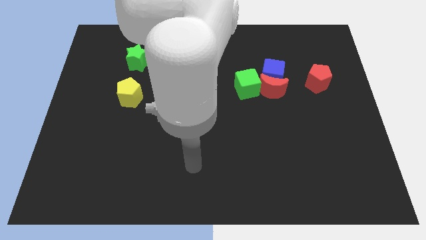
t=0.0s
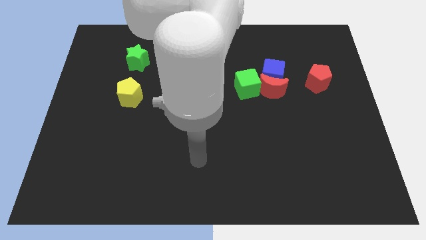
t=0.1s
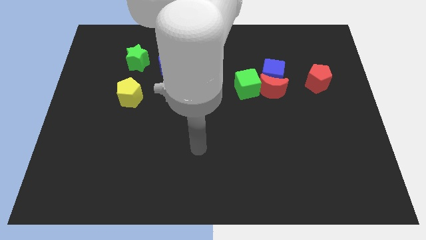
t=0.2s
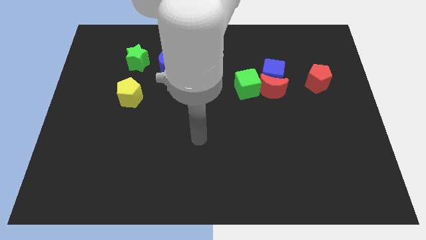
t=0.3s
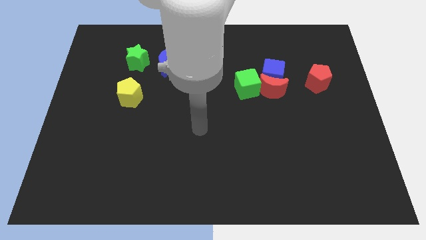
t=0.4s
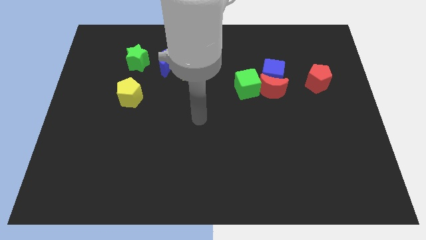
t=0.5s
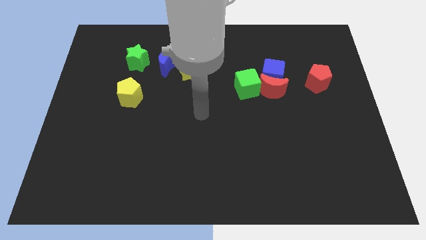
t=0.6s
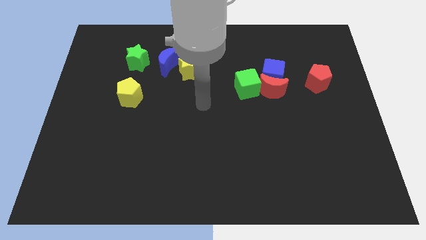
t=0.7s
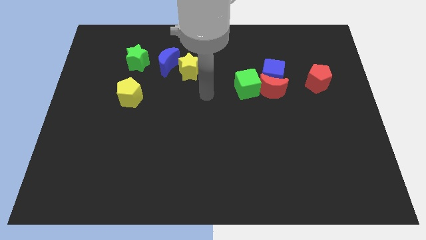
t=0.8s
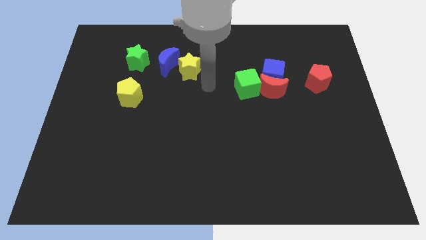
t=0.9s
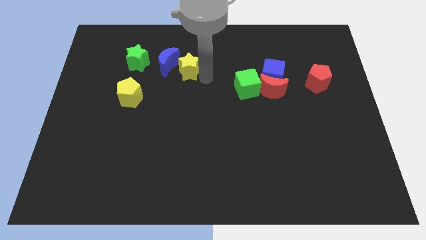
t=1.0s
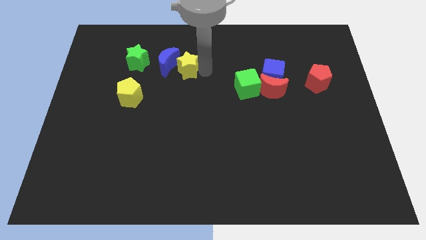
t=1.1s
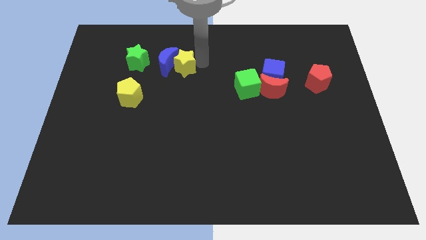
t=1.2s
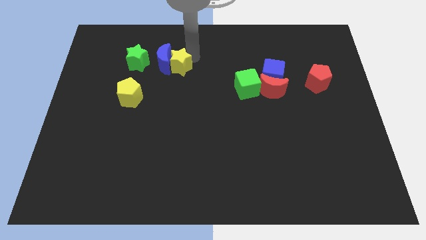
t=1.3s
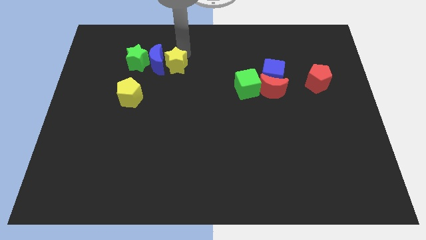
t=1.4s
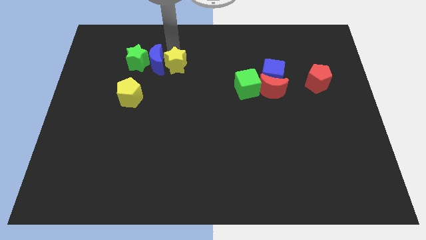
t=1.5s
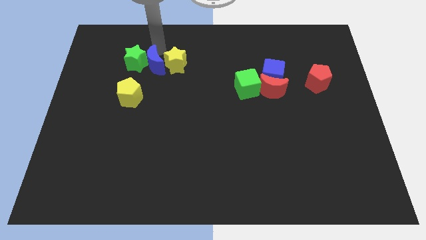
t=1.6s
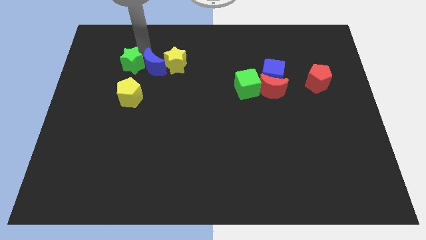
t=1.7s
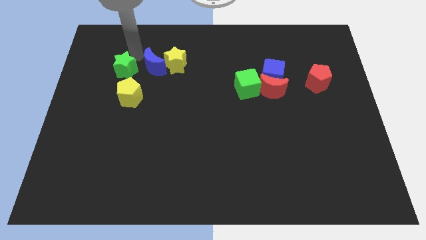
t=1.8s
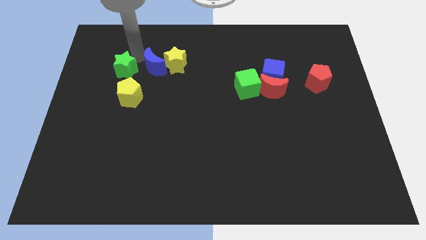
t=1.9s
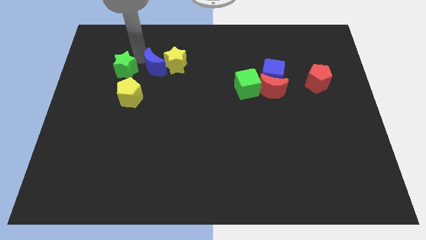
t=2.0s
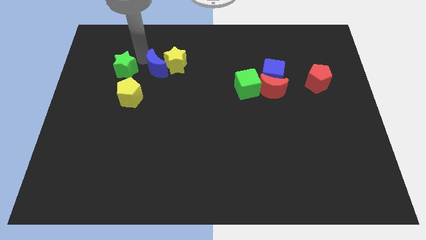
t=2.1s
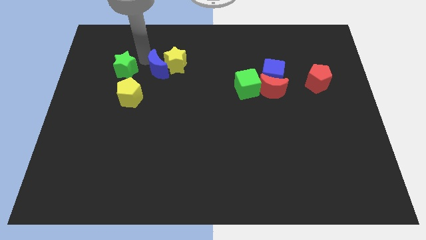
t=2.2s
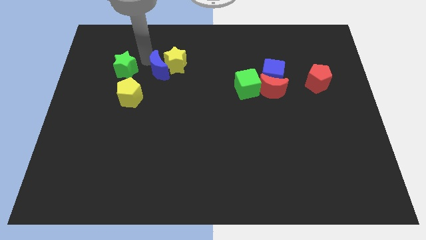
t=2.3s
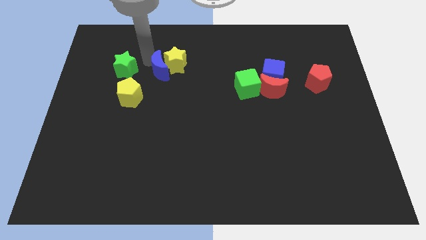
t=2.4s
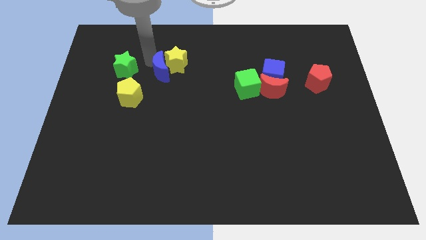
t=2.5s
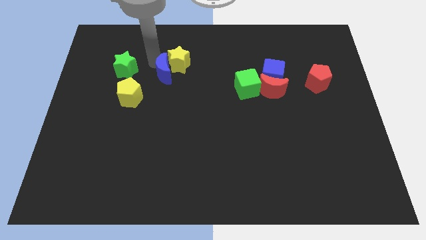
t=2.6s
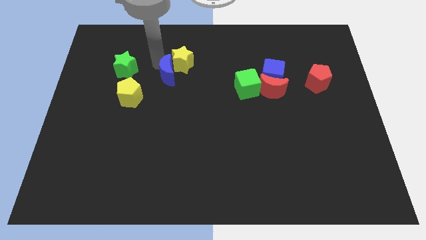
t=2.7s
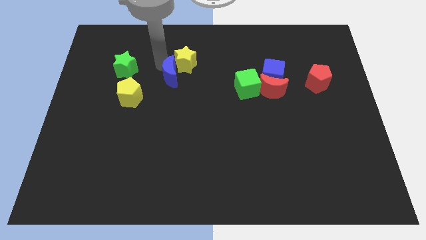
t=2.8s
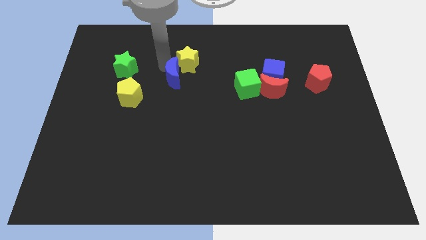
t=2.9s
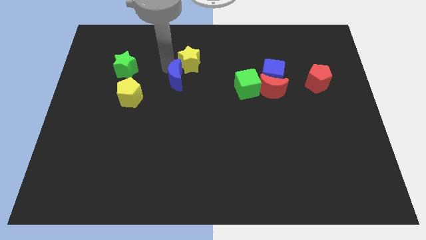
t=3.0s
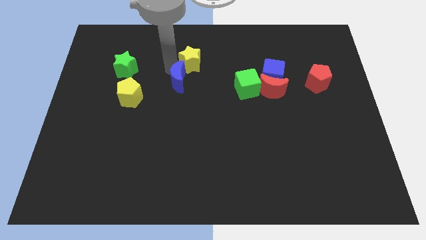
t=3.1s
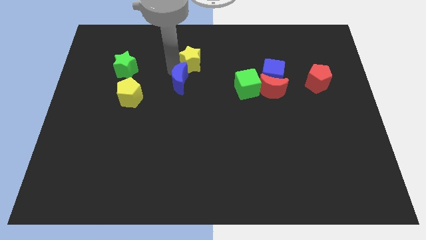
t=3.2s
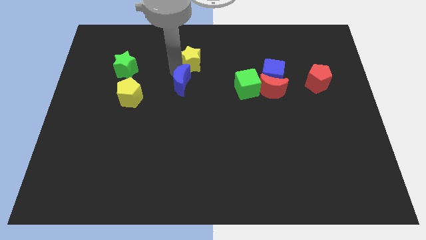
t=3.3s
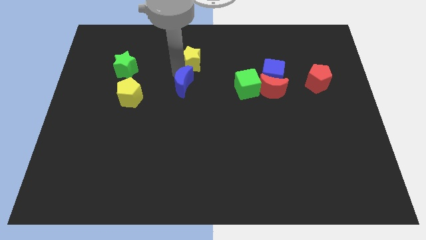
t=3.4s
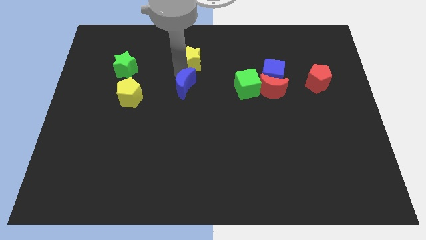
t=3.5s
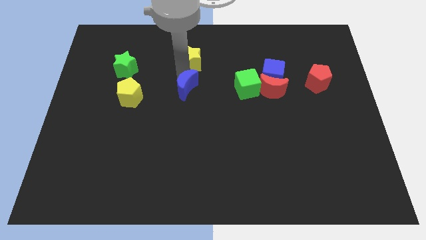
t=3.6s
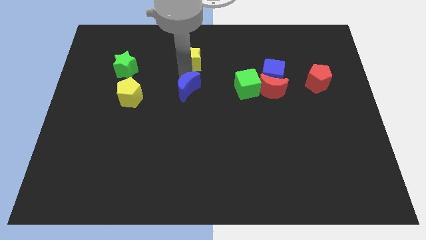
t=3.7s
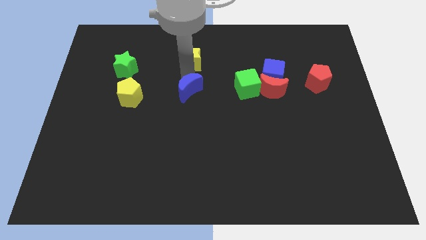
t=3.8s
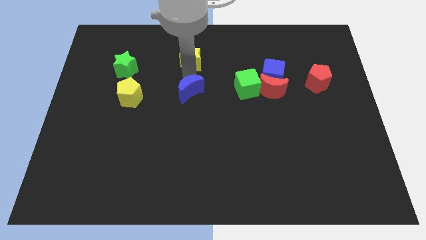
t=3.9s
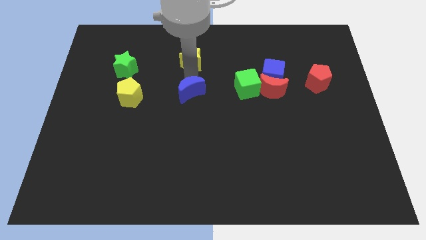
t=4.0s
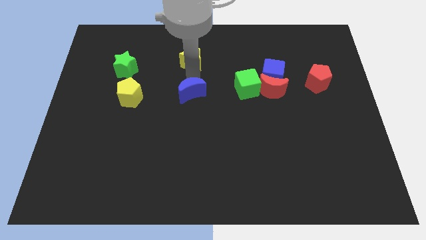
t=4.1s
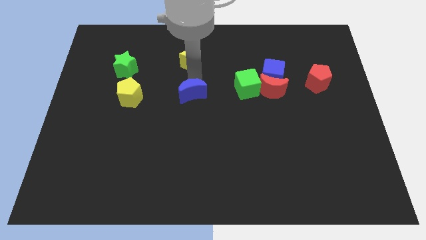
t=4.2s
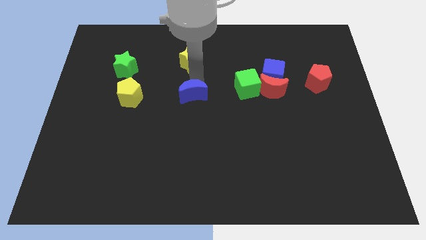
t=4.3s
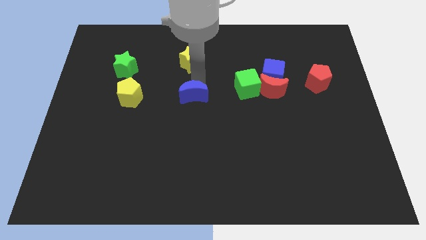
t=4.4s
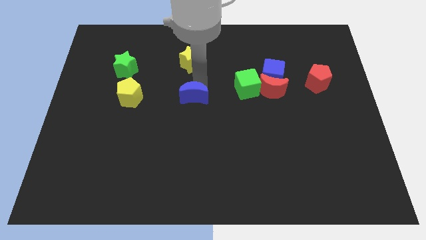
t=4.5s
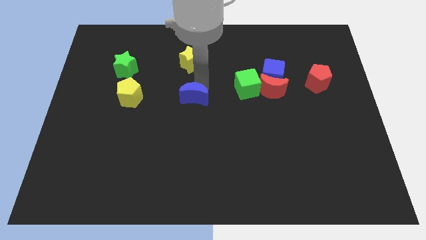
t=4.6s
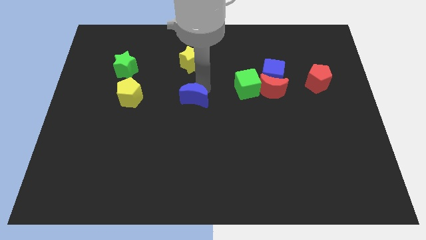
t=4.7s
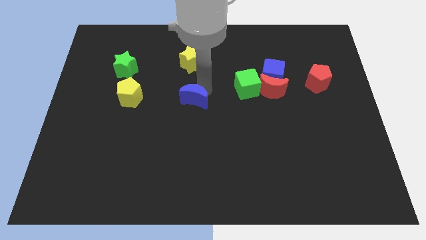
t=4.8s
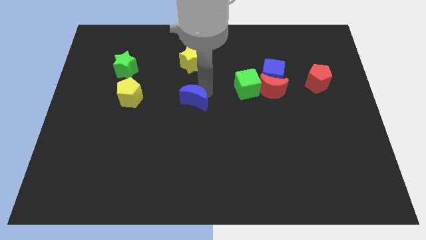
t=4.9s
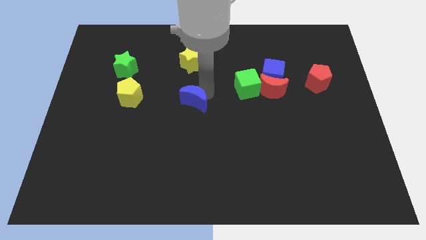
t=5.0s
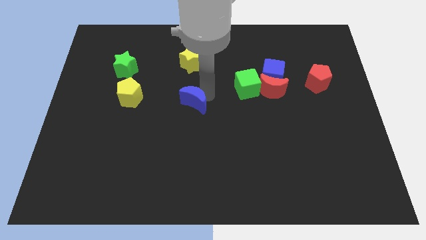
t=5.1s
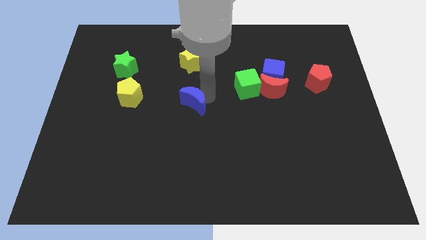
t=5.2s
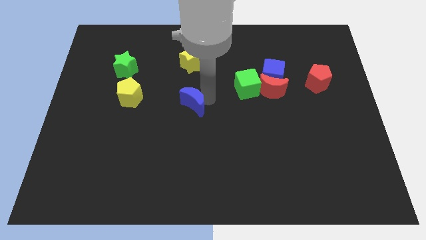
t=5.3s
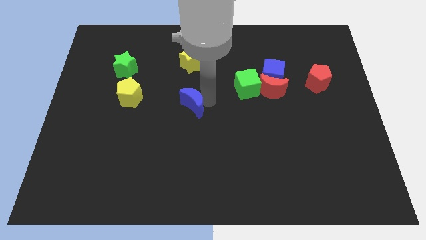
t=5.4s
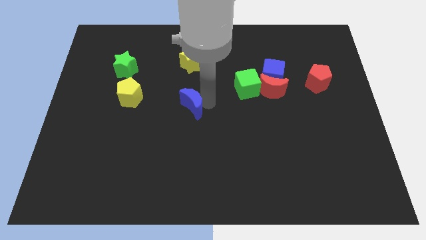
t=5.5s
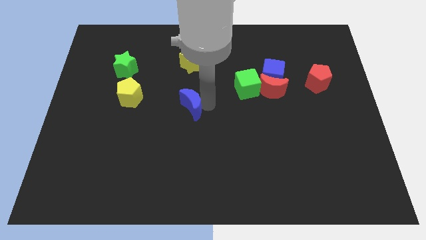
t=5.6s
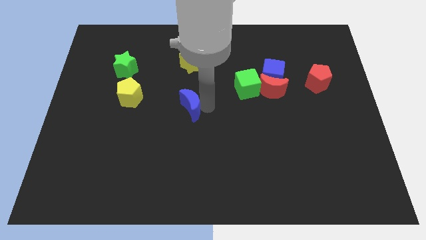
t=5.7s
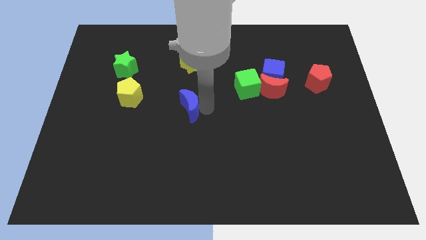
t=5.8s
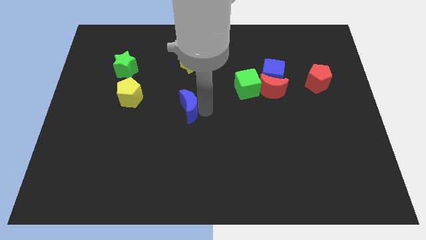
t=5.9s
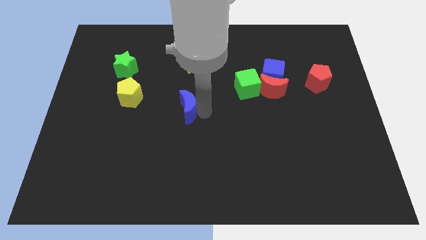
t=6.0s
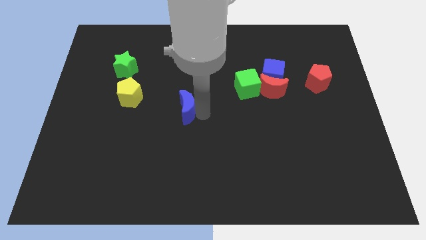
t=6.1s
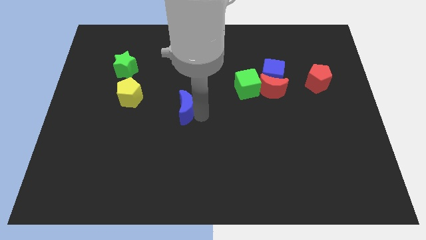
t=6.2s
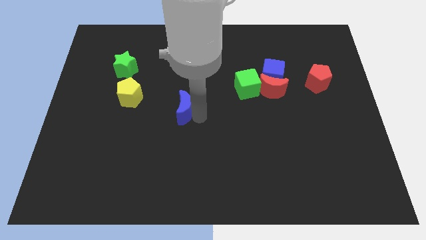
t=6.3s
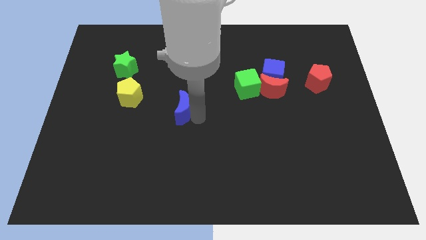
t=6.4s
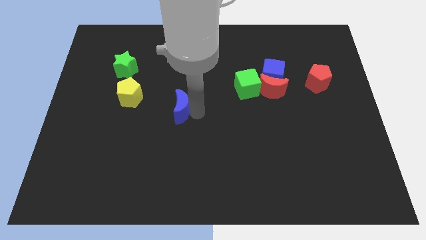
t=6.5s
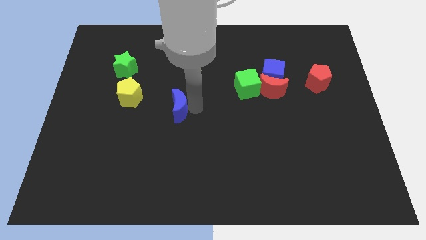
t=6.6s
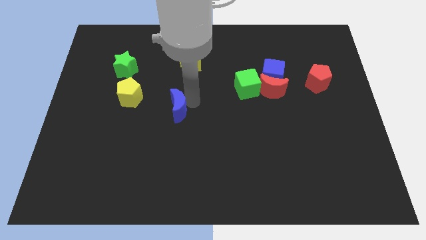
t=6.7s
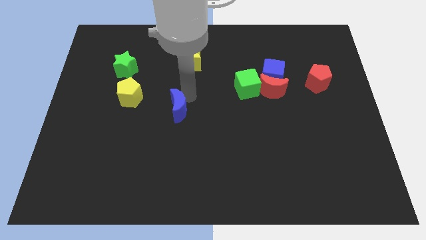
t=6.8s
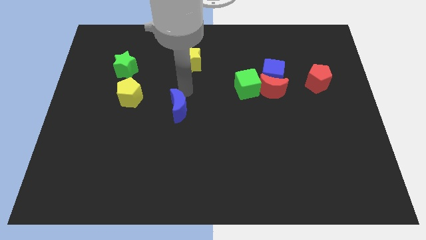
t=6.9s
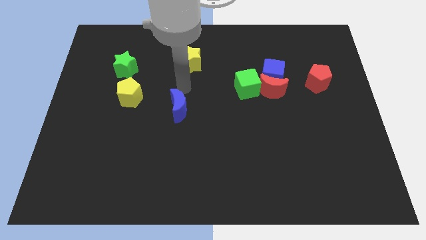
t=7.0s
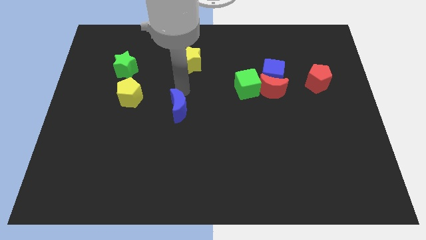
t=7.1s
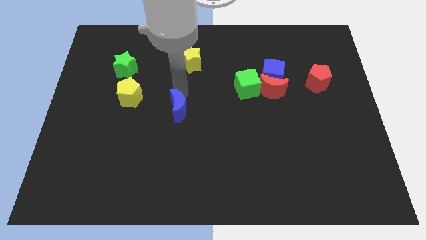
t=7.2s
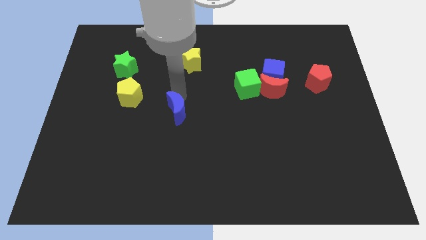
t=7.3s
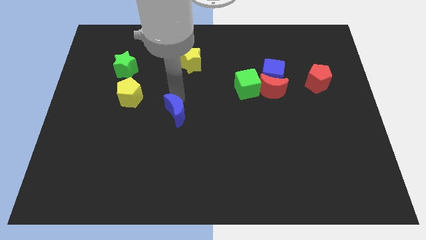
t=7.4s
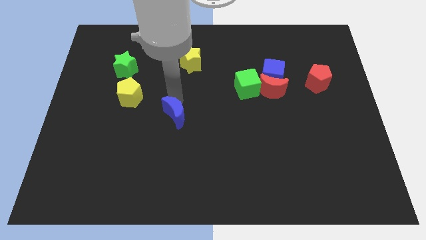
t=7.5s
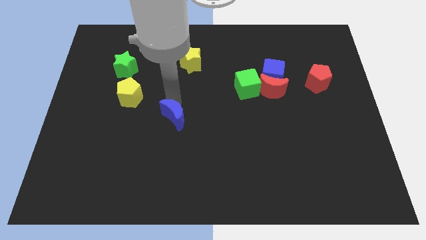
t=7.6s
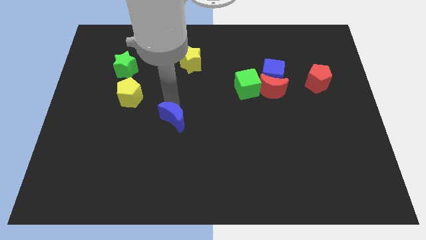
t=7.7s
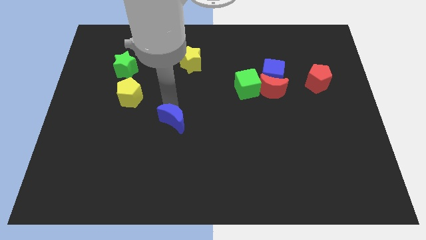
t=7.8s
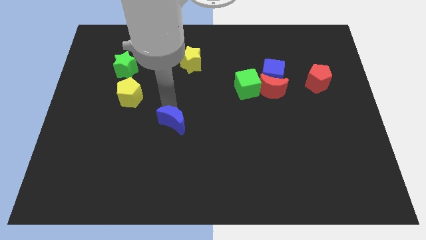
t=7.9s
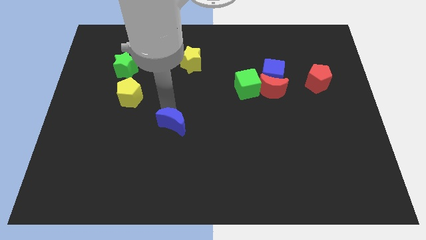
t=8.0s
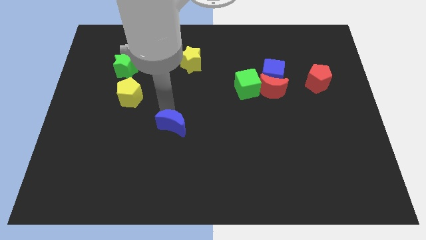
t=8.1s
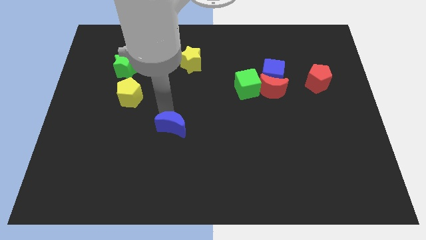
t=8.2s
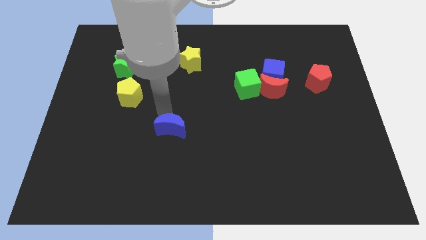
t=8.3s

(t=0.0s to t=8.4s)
move the blue moon down
